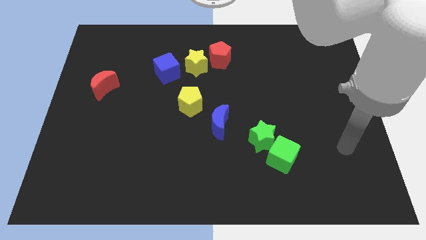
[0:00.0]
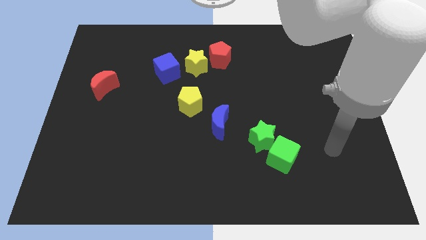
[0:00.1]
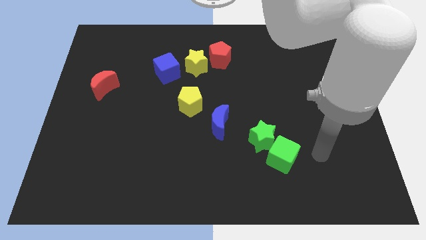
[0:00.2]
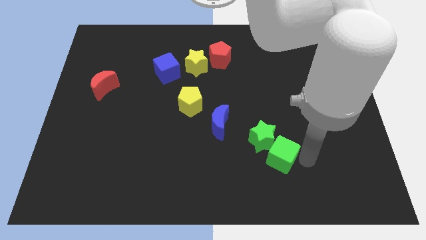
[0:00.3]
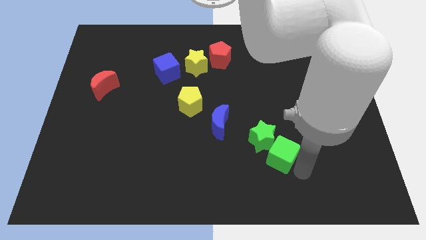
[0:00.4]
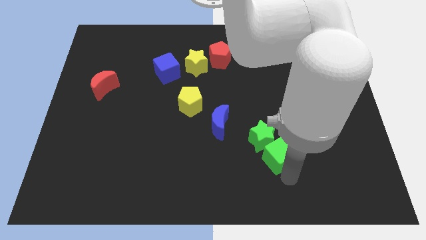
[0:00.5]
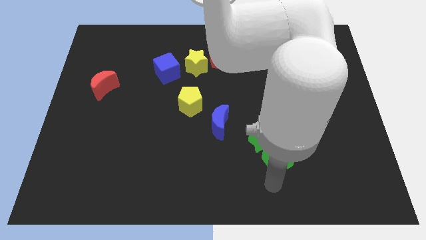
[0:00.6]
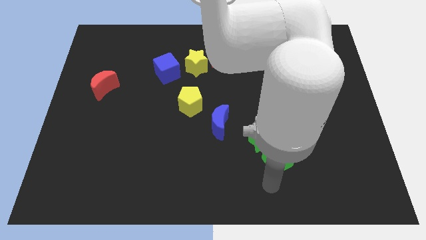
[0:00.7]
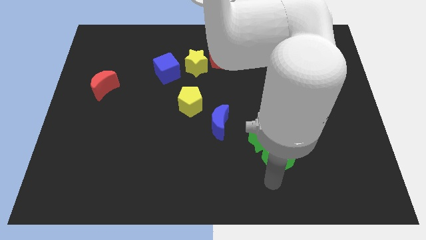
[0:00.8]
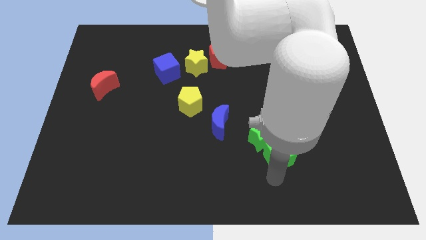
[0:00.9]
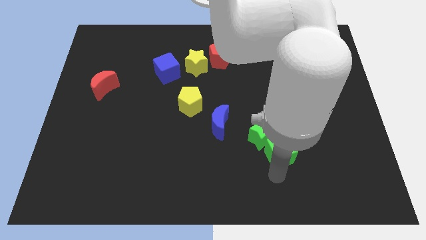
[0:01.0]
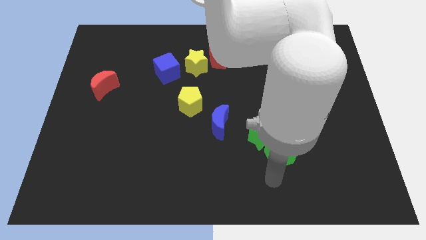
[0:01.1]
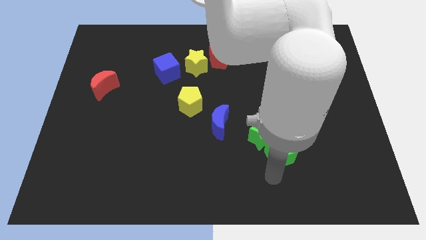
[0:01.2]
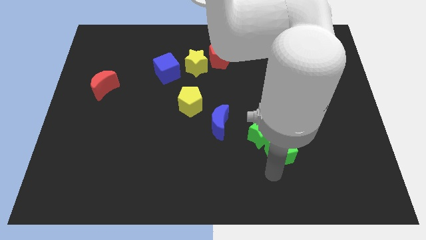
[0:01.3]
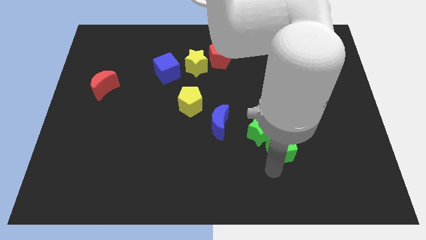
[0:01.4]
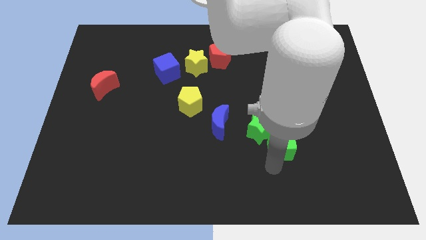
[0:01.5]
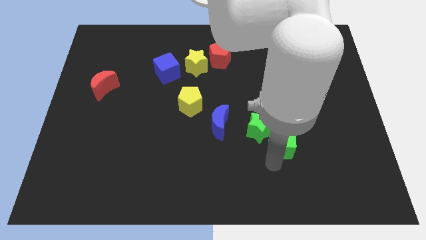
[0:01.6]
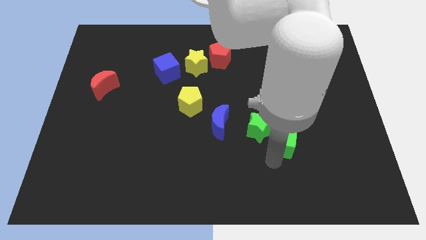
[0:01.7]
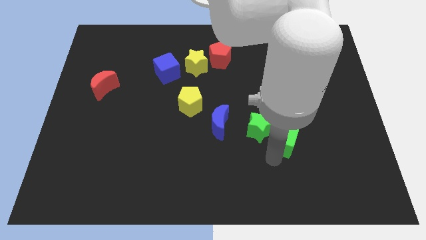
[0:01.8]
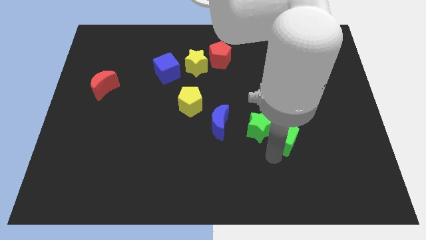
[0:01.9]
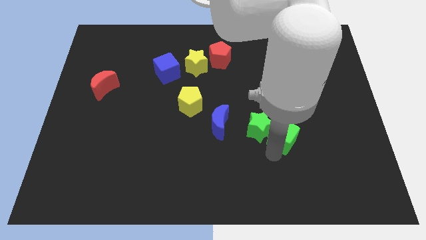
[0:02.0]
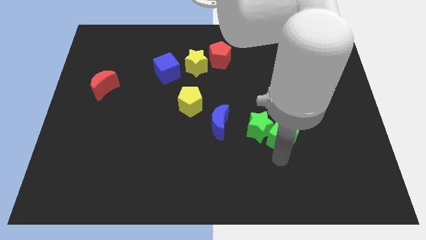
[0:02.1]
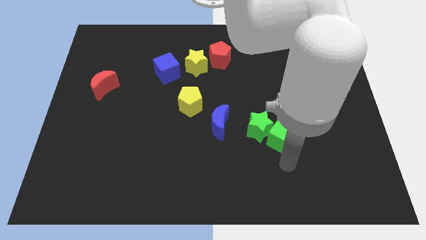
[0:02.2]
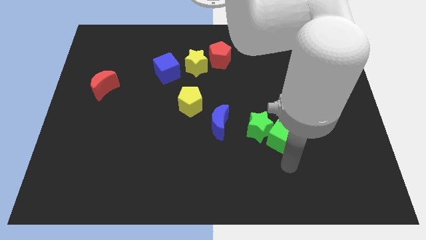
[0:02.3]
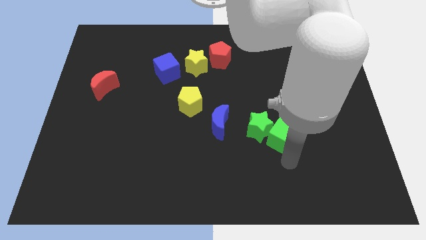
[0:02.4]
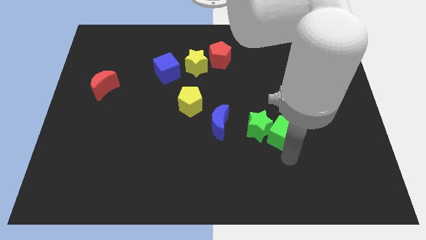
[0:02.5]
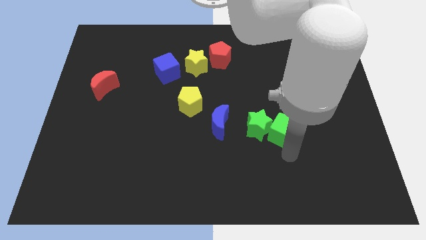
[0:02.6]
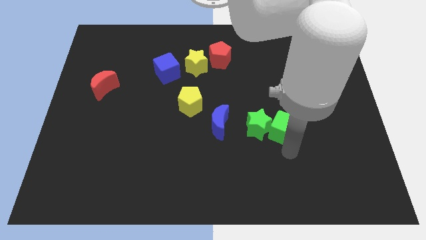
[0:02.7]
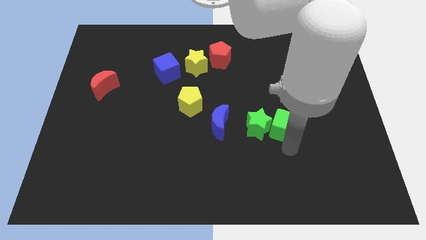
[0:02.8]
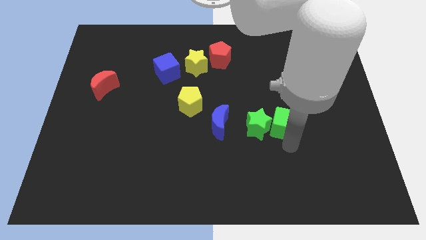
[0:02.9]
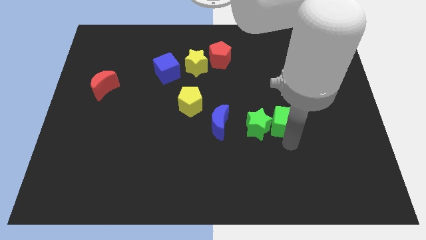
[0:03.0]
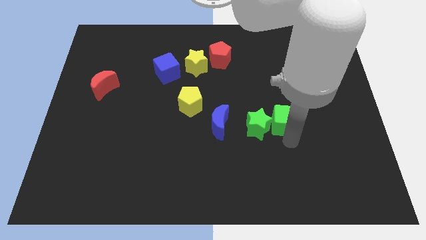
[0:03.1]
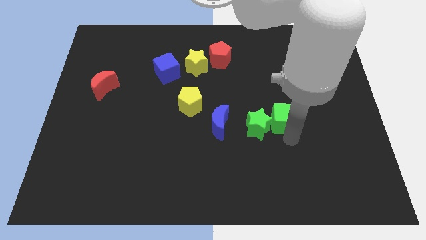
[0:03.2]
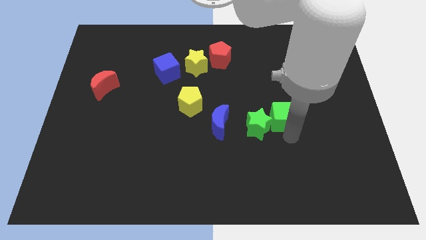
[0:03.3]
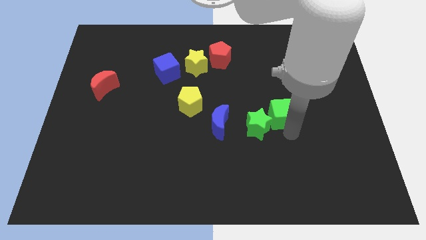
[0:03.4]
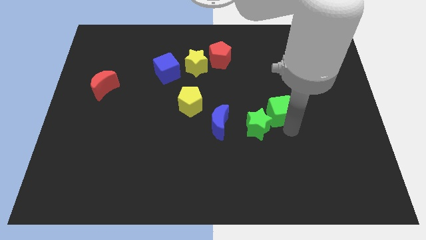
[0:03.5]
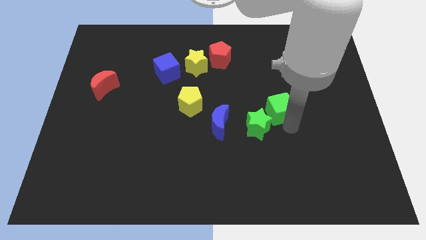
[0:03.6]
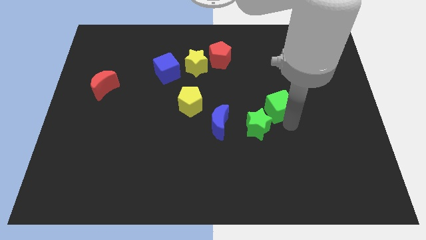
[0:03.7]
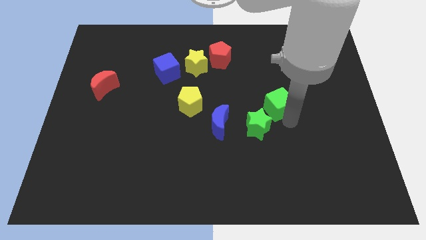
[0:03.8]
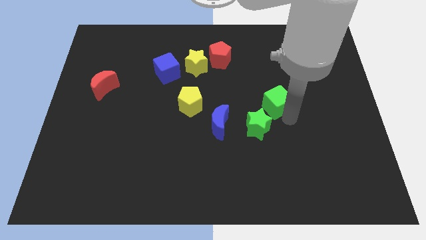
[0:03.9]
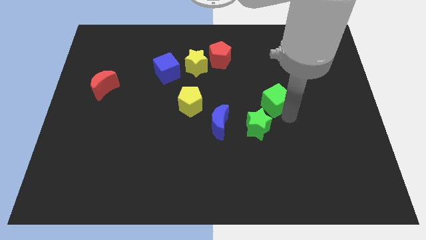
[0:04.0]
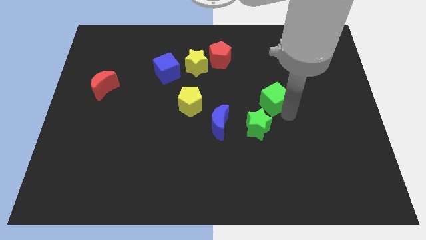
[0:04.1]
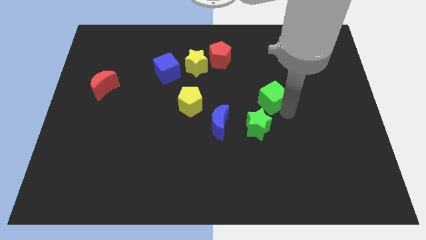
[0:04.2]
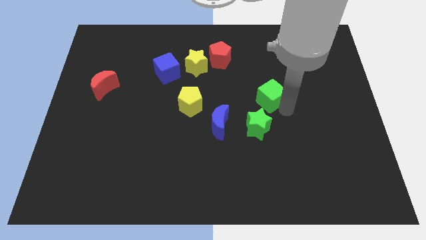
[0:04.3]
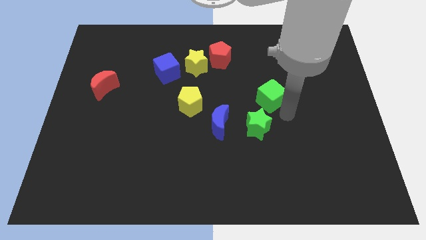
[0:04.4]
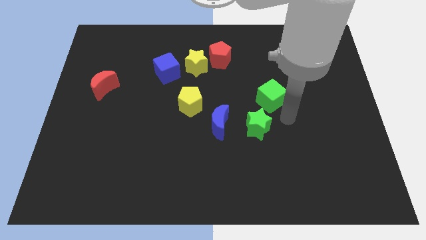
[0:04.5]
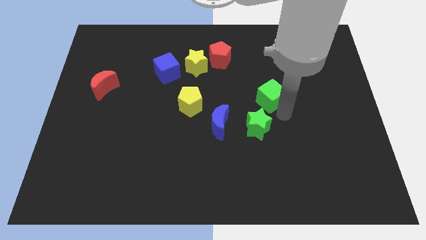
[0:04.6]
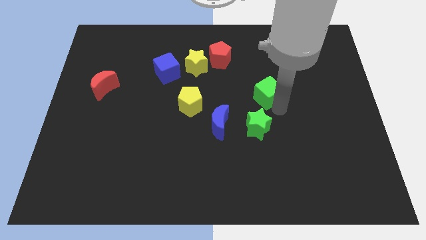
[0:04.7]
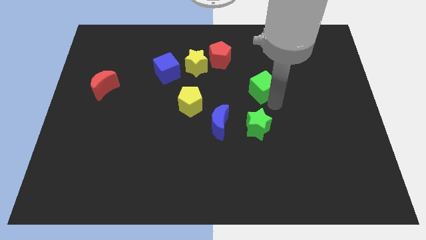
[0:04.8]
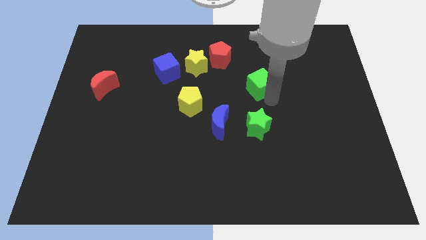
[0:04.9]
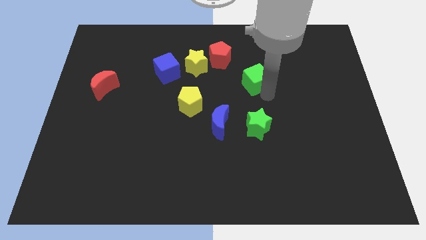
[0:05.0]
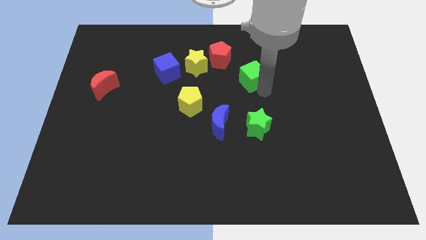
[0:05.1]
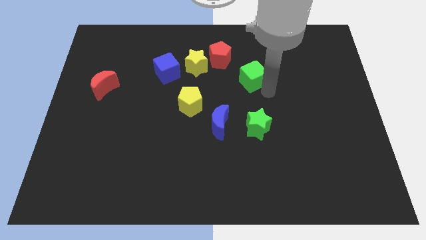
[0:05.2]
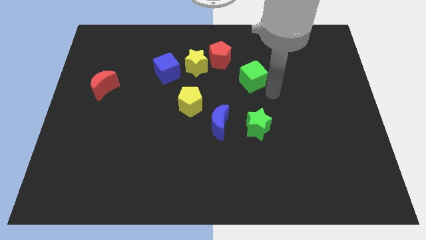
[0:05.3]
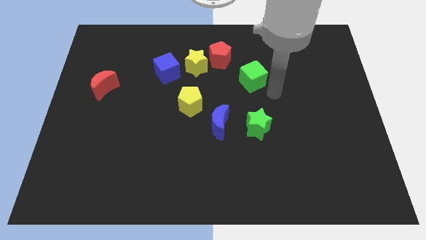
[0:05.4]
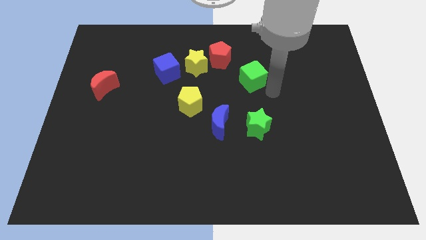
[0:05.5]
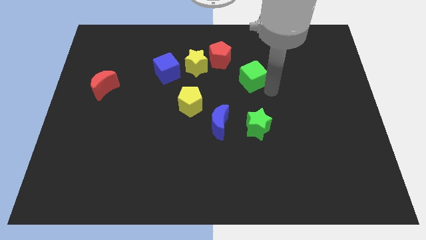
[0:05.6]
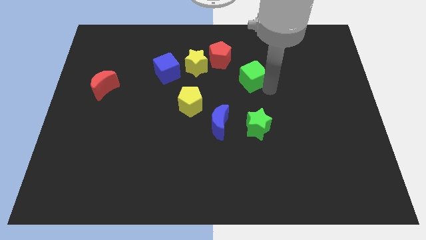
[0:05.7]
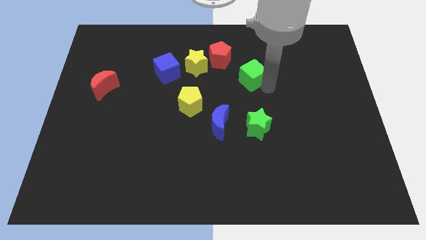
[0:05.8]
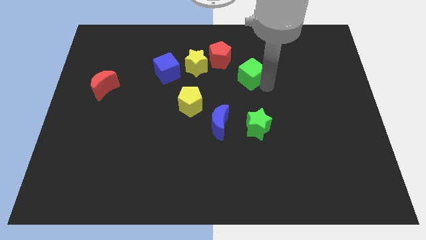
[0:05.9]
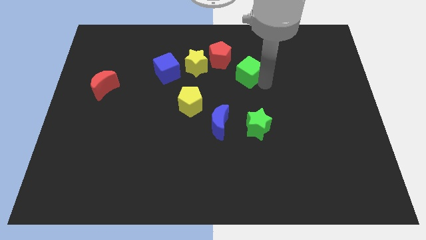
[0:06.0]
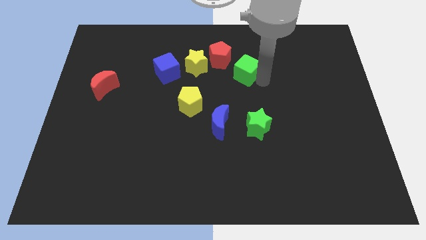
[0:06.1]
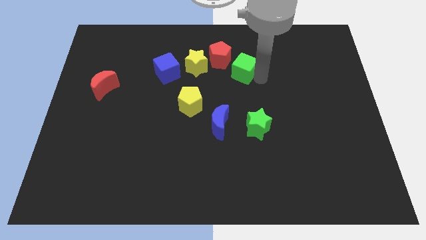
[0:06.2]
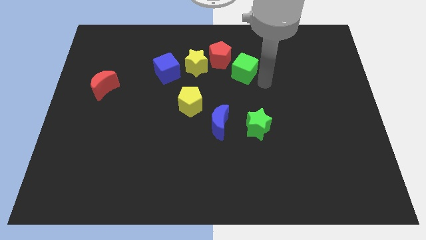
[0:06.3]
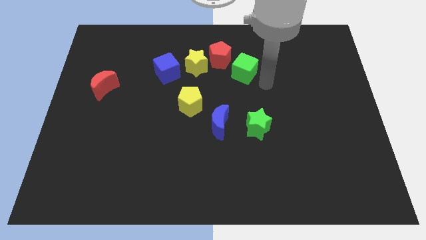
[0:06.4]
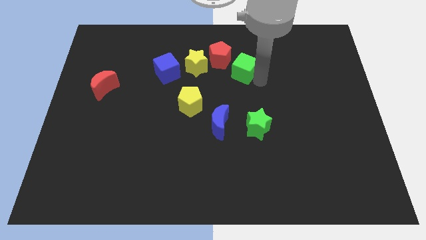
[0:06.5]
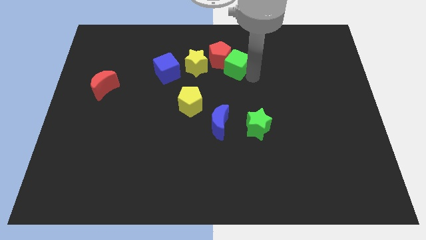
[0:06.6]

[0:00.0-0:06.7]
move the green cube close to the red pentagon

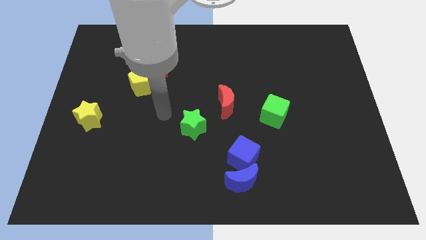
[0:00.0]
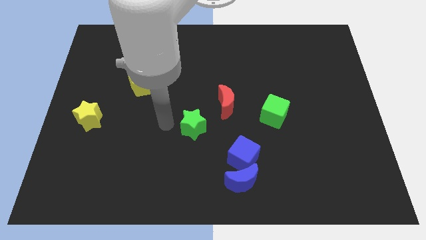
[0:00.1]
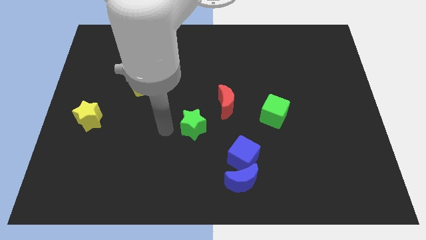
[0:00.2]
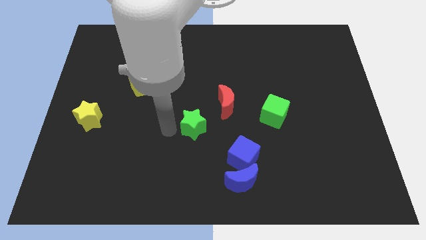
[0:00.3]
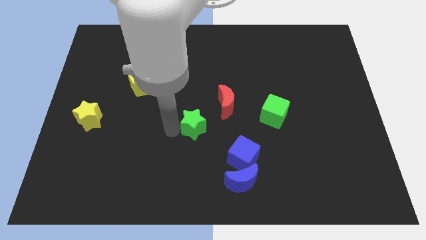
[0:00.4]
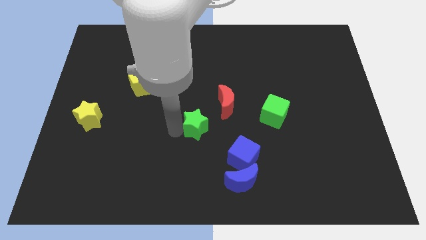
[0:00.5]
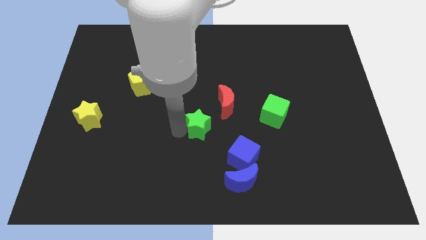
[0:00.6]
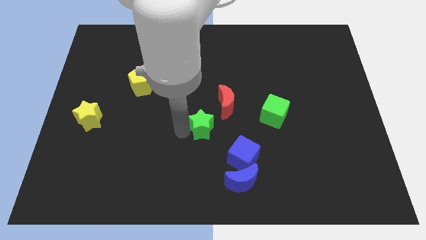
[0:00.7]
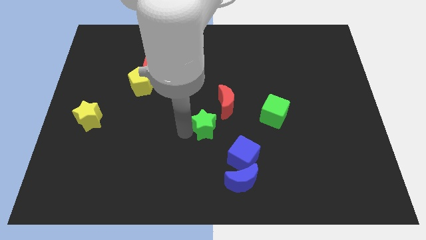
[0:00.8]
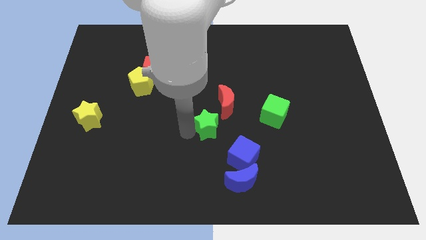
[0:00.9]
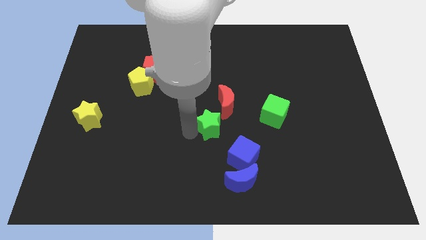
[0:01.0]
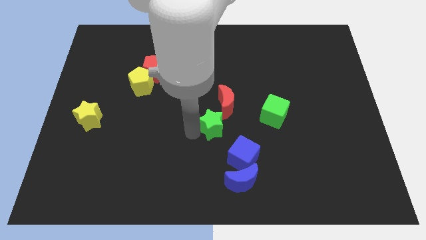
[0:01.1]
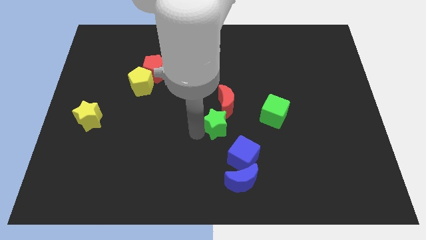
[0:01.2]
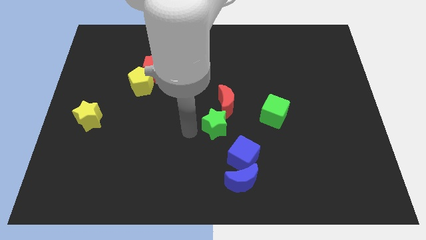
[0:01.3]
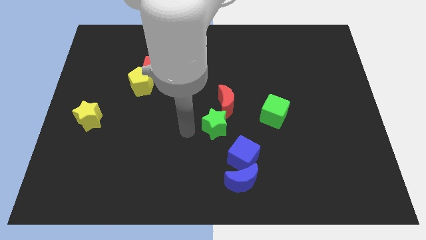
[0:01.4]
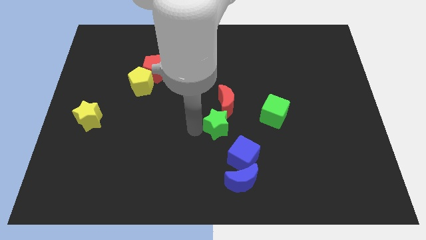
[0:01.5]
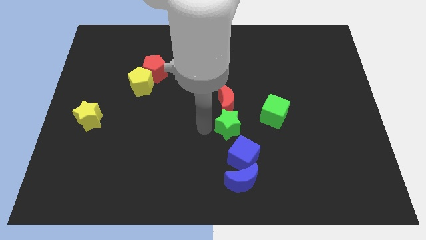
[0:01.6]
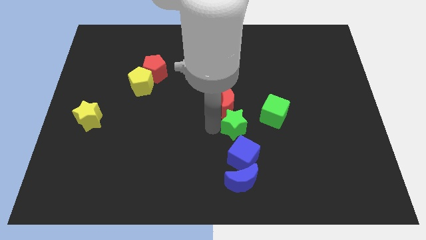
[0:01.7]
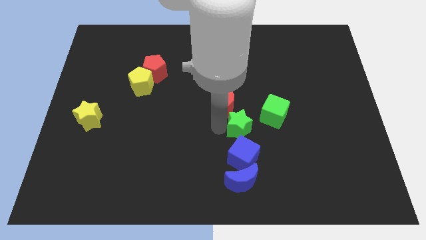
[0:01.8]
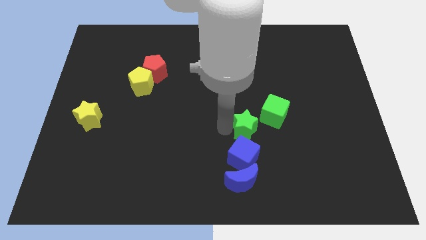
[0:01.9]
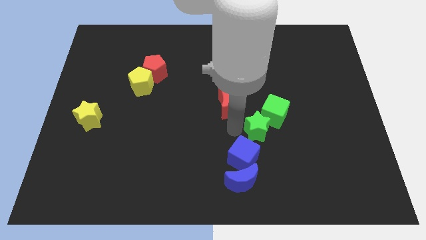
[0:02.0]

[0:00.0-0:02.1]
push the green star towards the green cube
